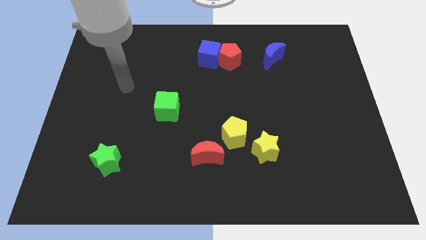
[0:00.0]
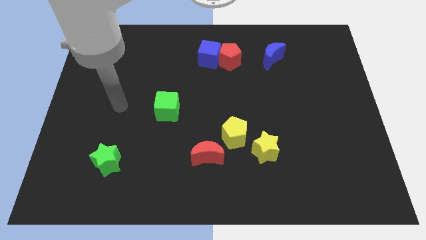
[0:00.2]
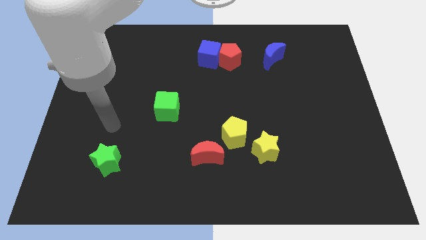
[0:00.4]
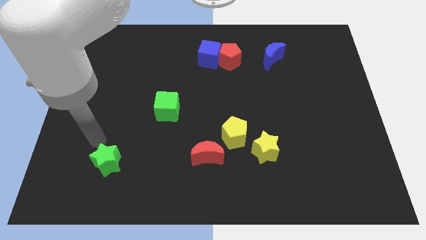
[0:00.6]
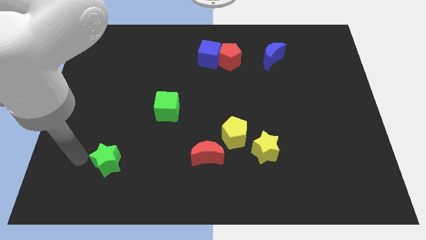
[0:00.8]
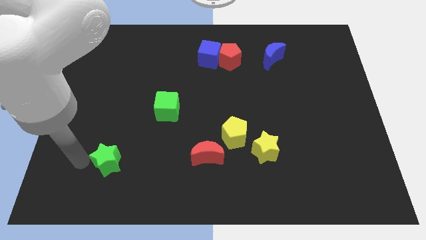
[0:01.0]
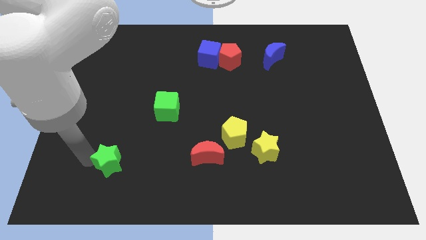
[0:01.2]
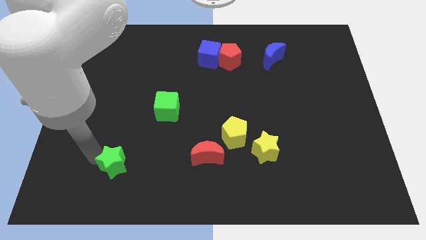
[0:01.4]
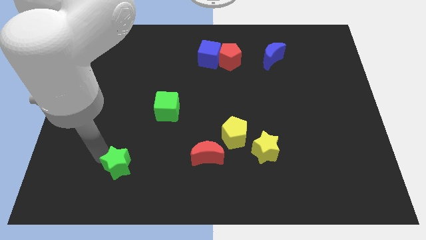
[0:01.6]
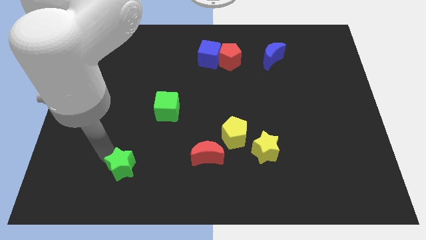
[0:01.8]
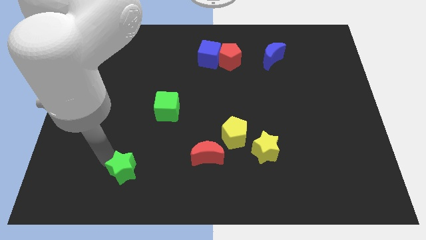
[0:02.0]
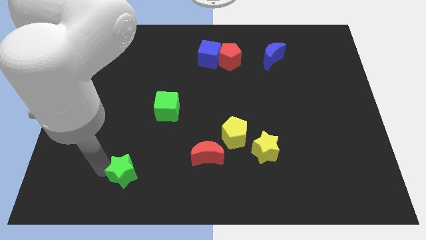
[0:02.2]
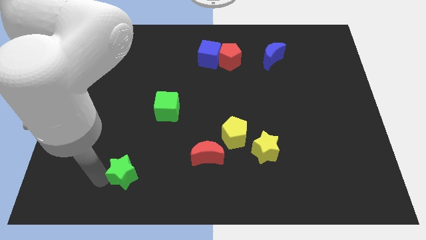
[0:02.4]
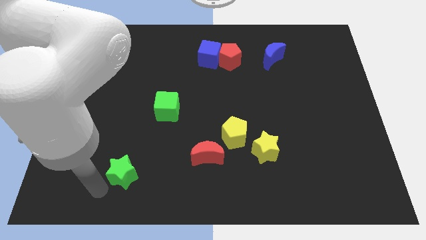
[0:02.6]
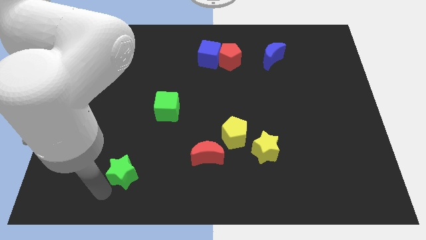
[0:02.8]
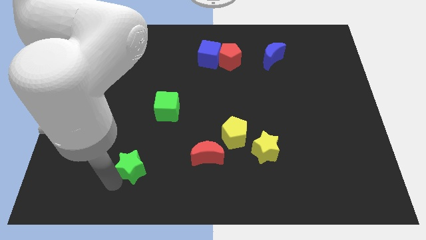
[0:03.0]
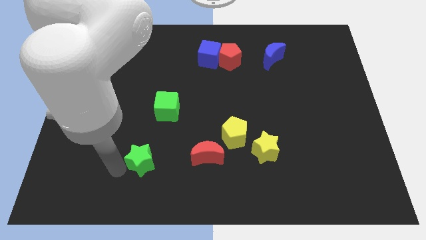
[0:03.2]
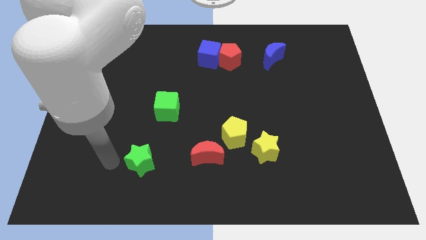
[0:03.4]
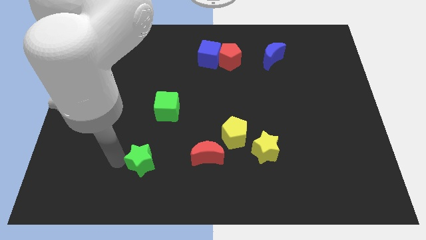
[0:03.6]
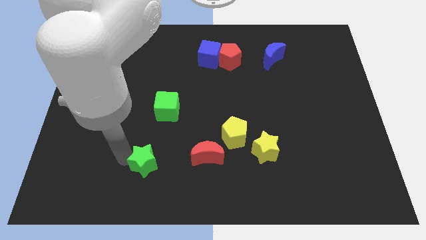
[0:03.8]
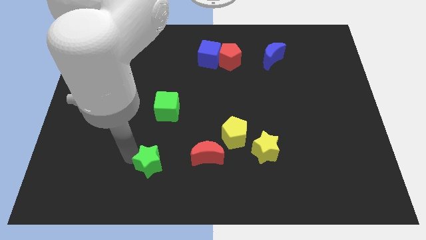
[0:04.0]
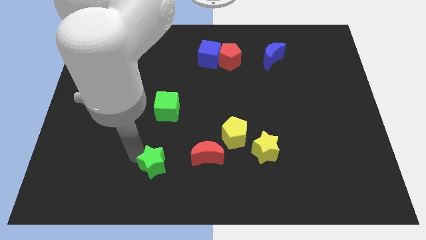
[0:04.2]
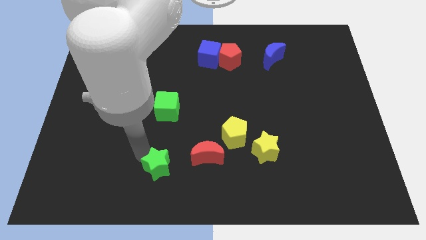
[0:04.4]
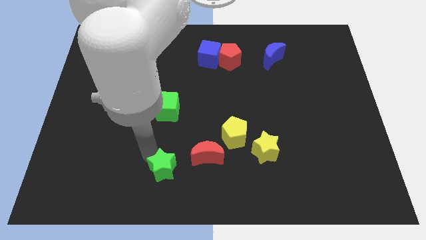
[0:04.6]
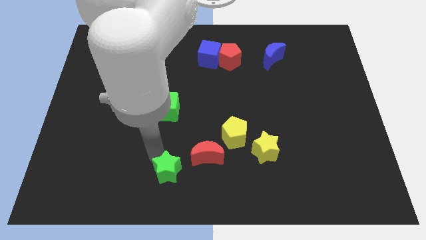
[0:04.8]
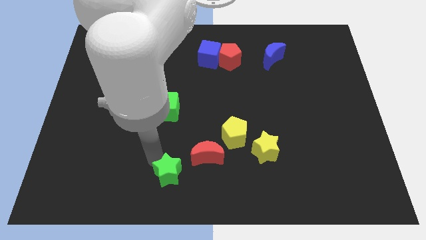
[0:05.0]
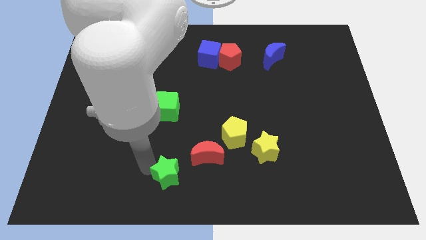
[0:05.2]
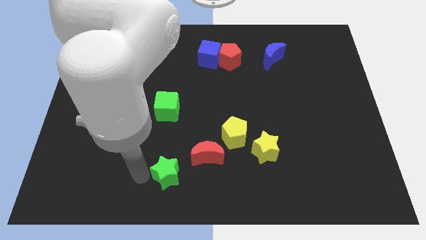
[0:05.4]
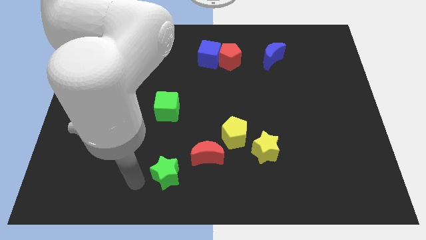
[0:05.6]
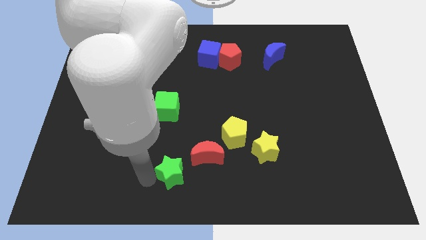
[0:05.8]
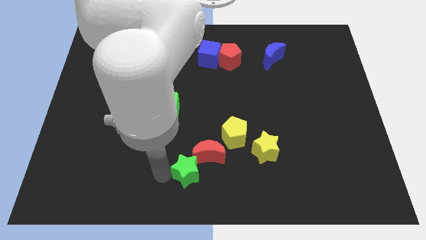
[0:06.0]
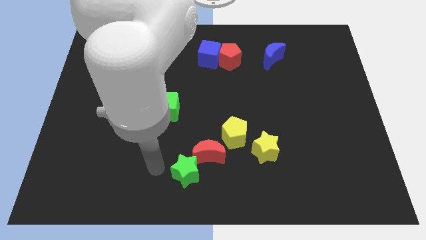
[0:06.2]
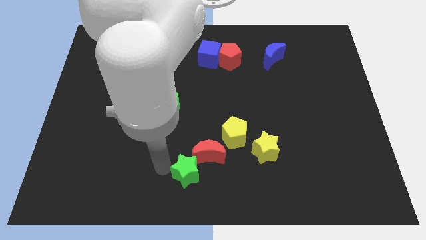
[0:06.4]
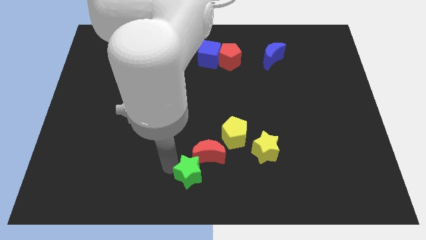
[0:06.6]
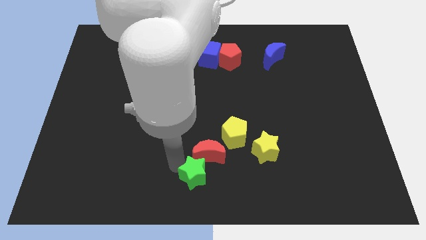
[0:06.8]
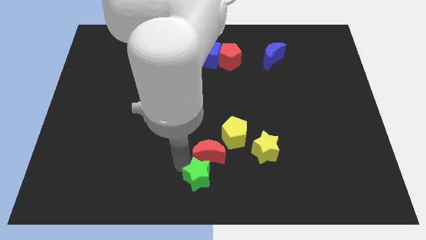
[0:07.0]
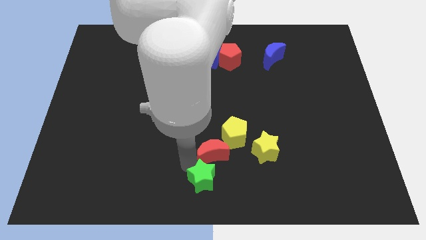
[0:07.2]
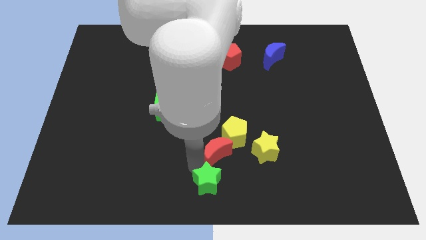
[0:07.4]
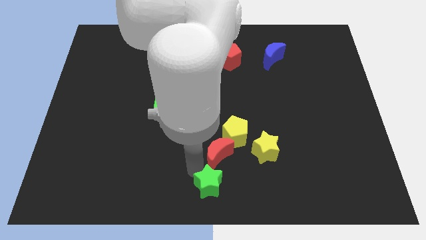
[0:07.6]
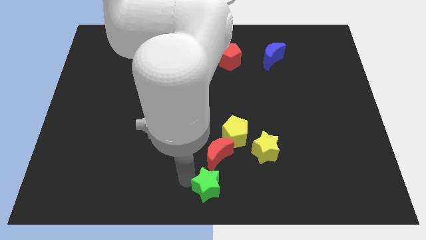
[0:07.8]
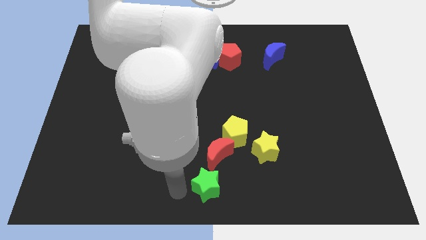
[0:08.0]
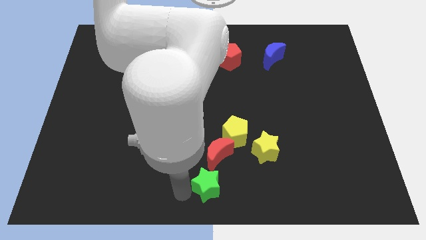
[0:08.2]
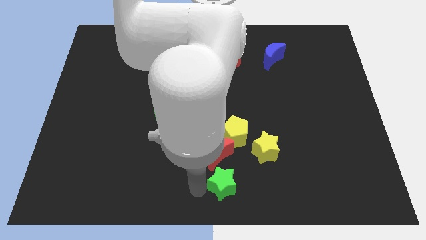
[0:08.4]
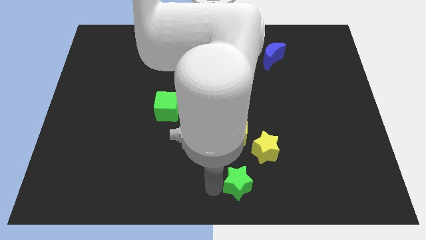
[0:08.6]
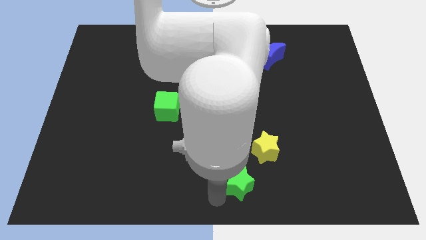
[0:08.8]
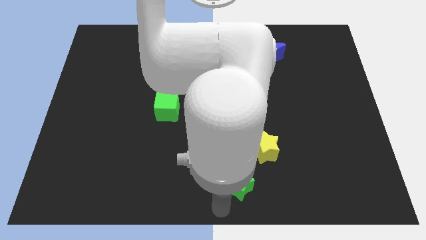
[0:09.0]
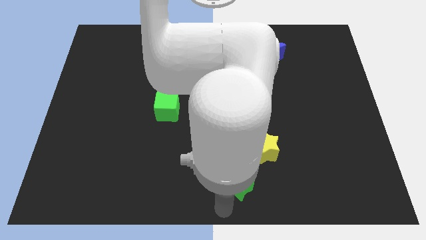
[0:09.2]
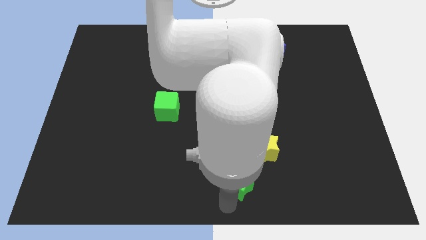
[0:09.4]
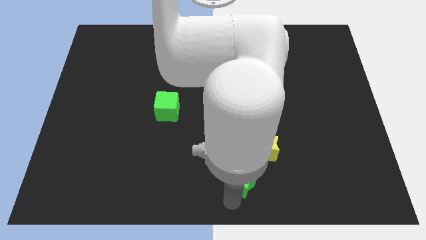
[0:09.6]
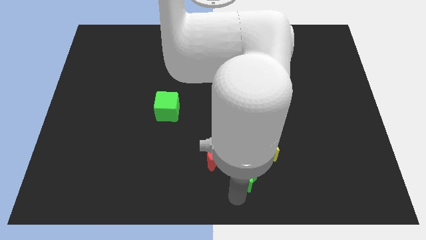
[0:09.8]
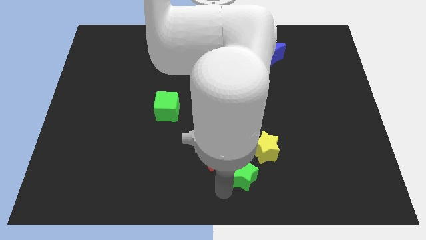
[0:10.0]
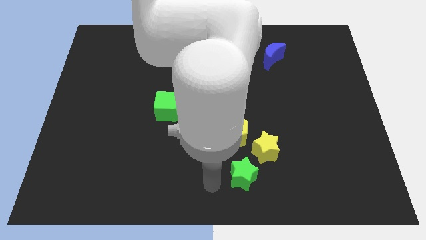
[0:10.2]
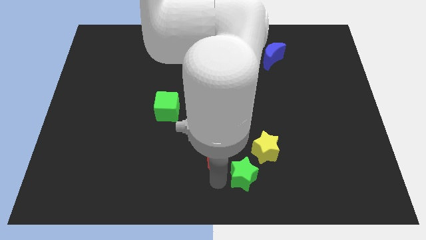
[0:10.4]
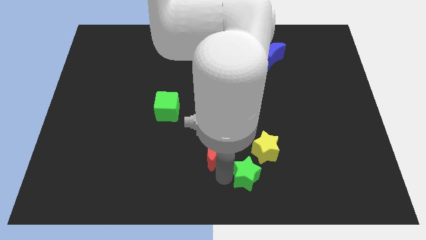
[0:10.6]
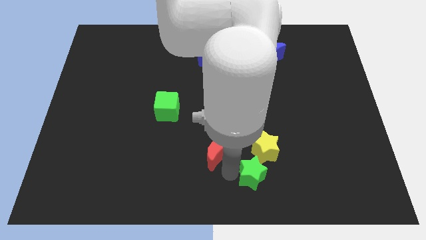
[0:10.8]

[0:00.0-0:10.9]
move the green star to the bottom right of the yellow pentagon

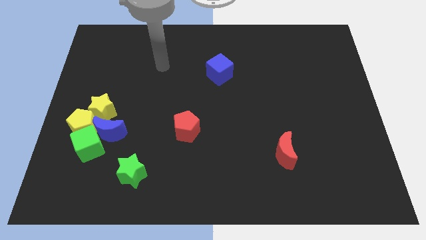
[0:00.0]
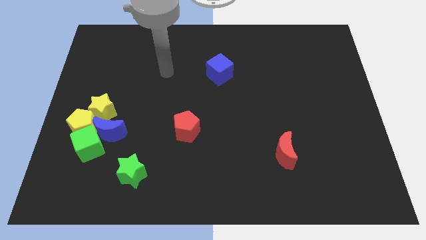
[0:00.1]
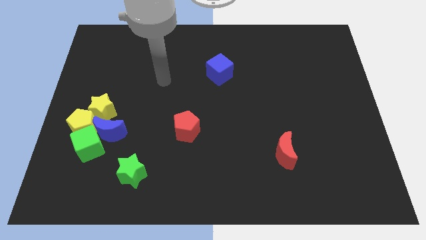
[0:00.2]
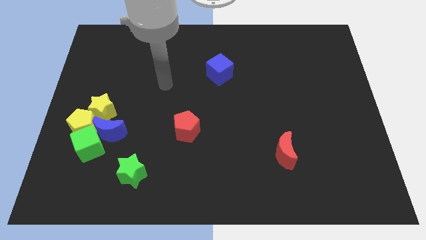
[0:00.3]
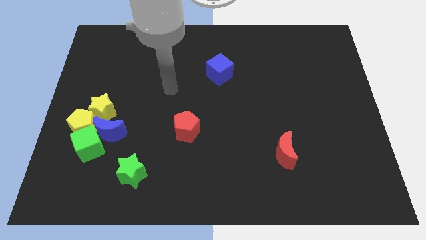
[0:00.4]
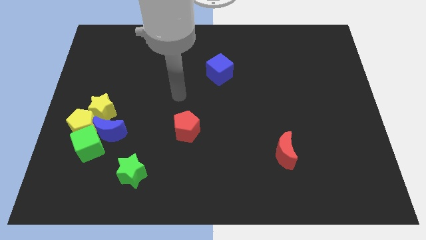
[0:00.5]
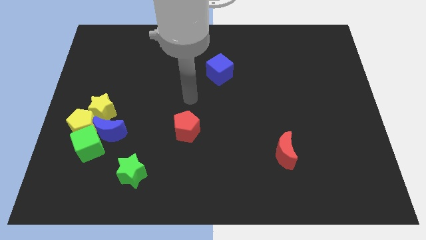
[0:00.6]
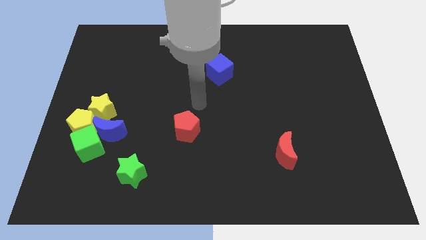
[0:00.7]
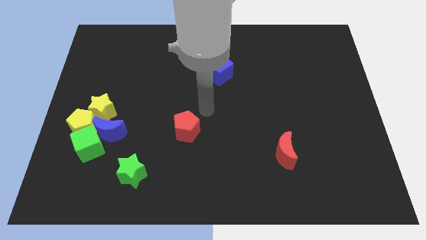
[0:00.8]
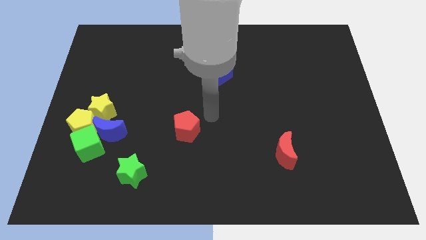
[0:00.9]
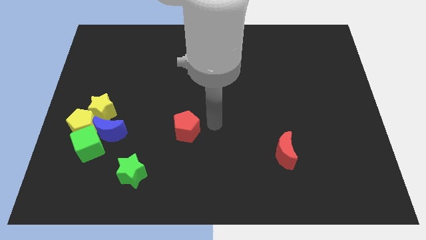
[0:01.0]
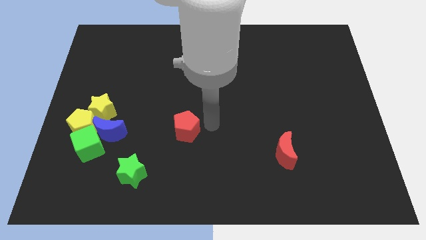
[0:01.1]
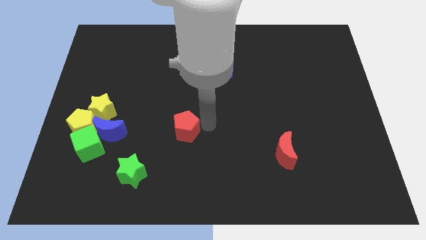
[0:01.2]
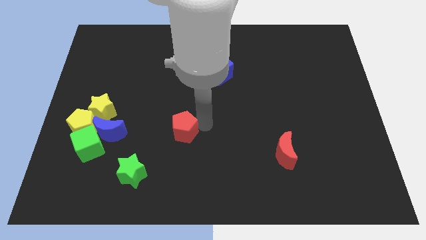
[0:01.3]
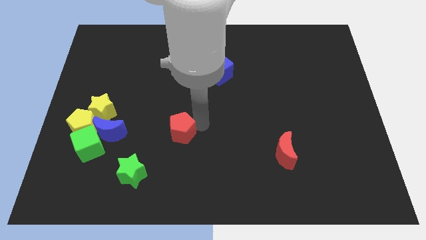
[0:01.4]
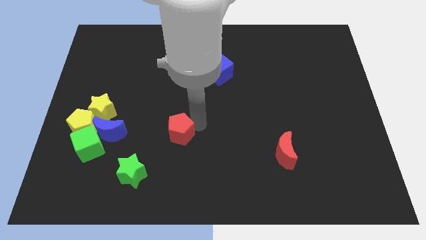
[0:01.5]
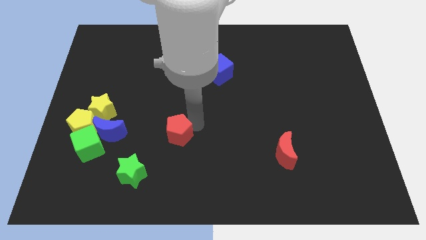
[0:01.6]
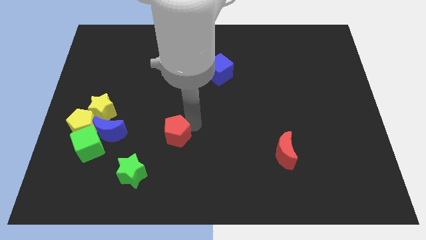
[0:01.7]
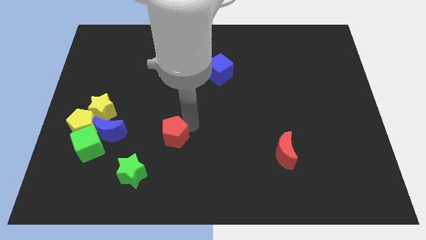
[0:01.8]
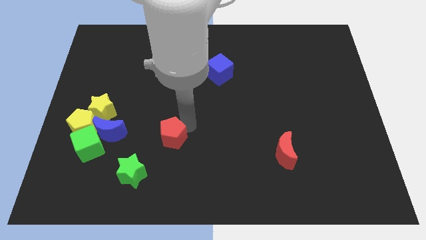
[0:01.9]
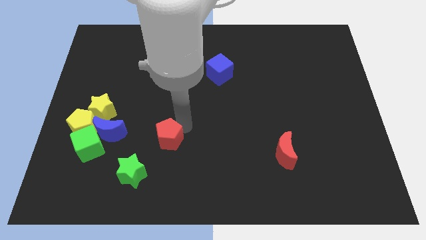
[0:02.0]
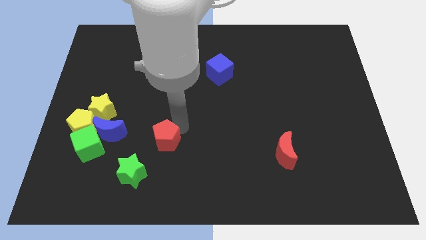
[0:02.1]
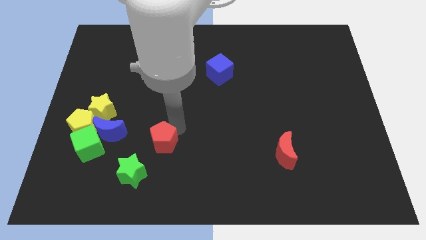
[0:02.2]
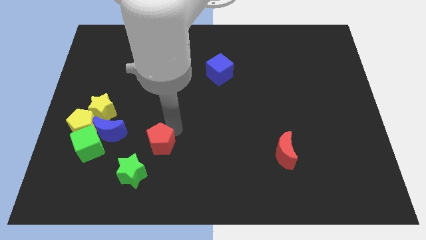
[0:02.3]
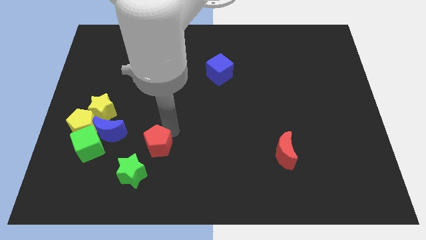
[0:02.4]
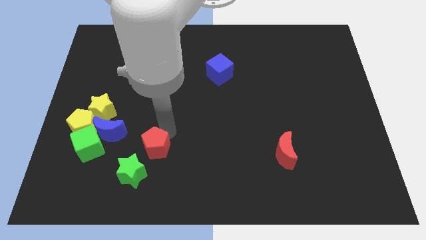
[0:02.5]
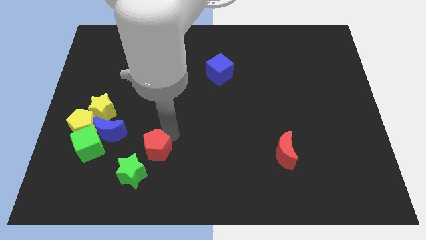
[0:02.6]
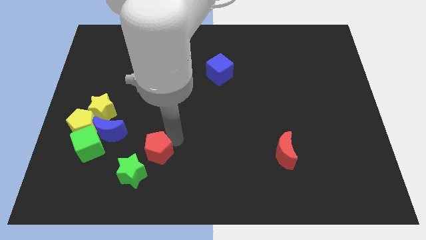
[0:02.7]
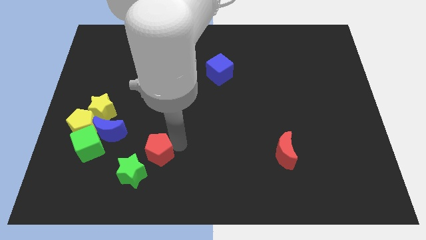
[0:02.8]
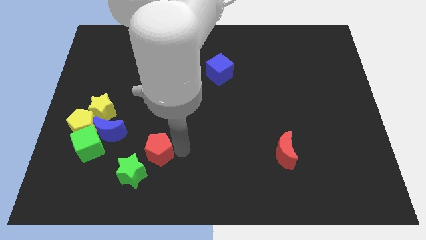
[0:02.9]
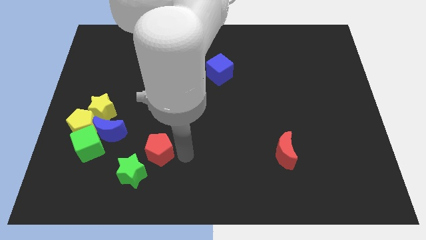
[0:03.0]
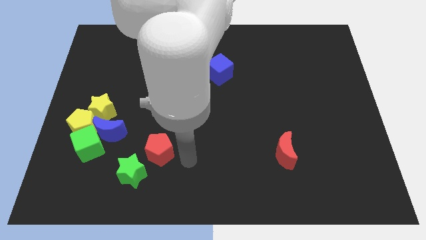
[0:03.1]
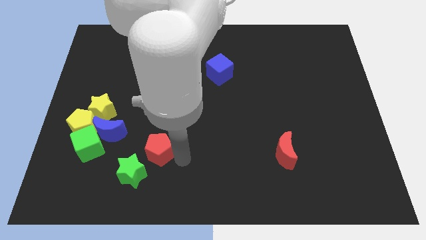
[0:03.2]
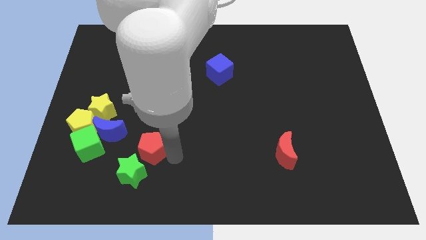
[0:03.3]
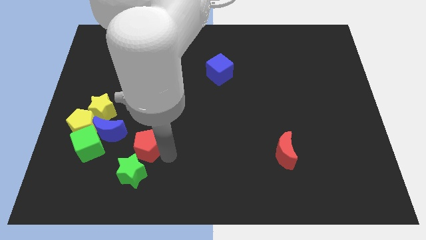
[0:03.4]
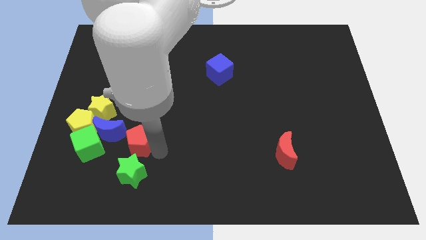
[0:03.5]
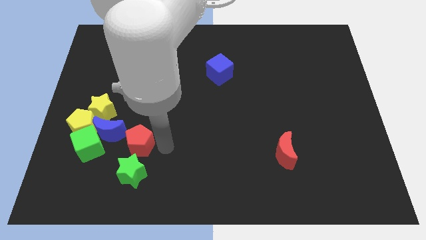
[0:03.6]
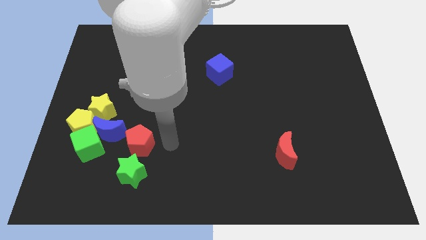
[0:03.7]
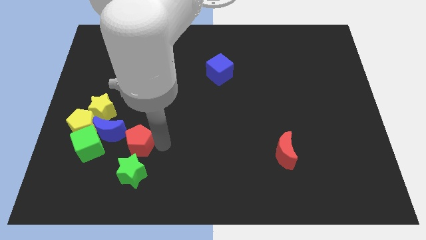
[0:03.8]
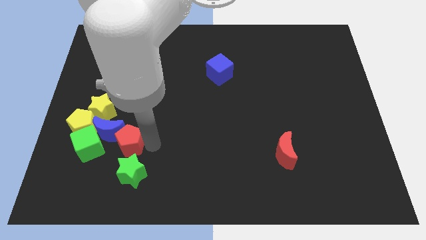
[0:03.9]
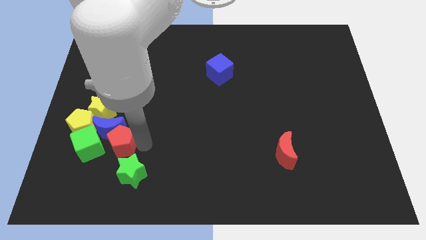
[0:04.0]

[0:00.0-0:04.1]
move the red pentagon to the bottom right of the yellow pentagon
